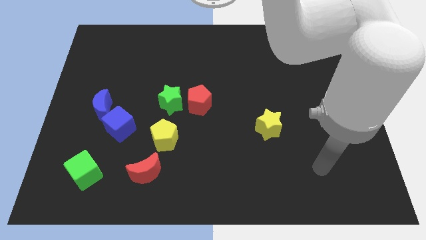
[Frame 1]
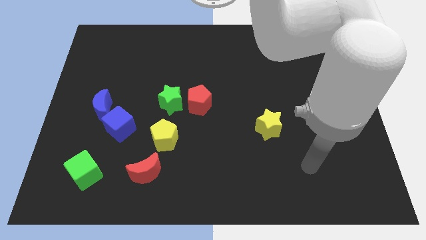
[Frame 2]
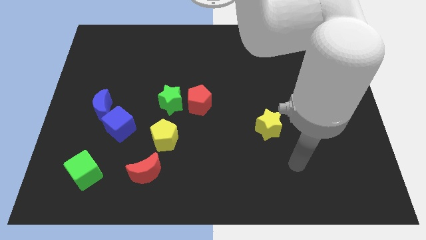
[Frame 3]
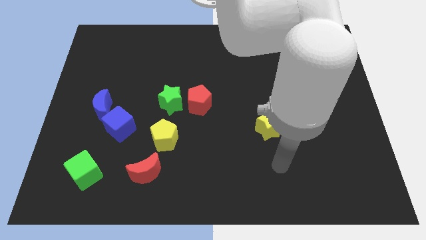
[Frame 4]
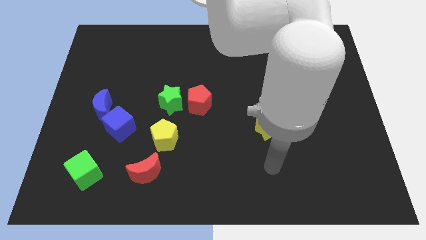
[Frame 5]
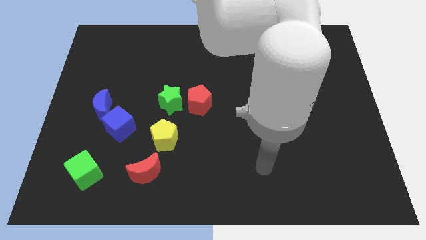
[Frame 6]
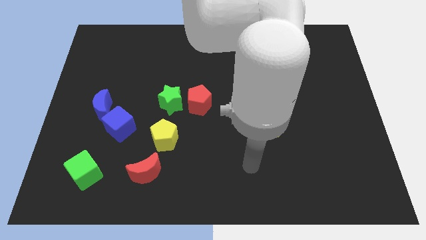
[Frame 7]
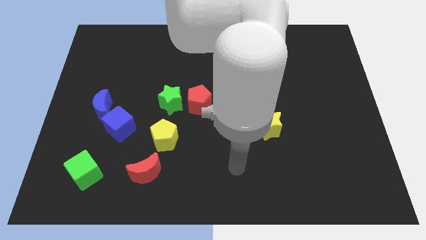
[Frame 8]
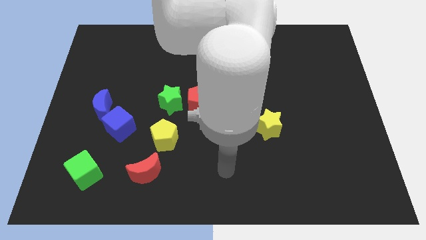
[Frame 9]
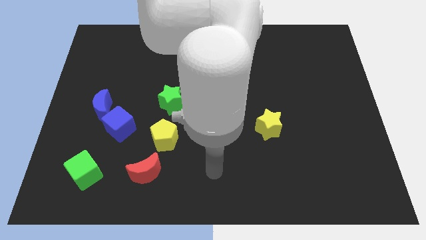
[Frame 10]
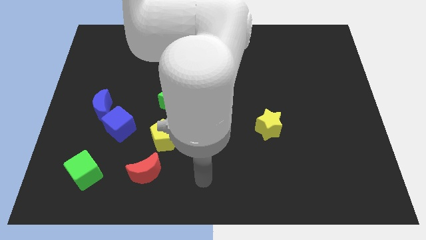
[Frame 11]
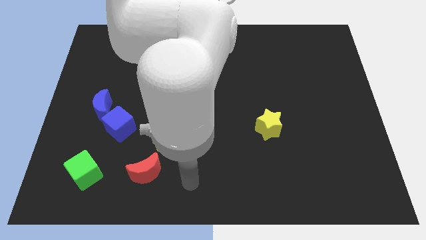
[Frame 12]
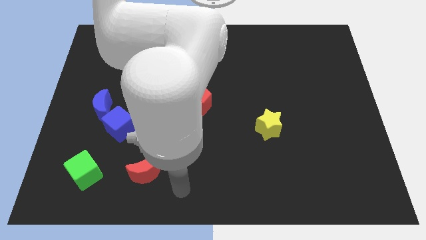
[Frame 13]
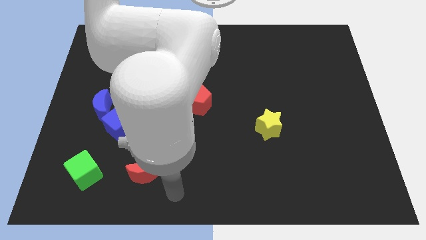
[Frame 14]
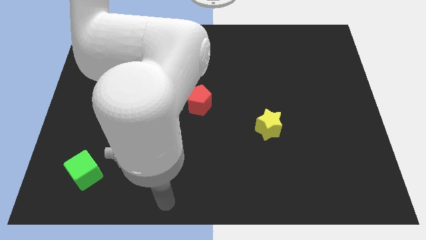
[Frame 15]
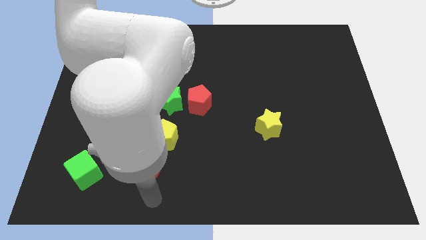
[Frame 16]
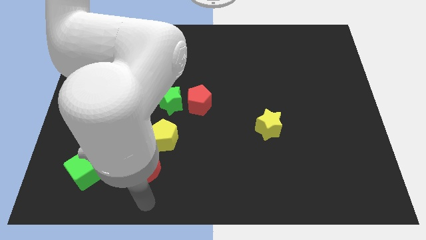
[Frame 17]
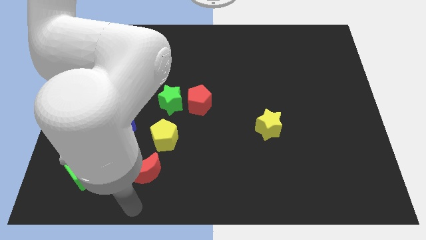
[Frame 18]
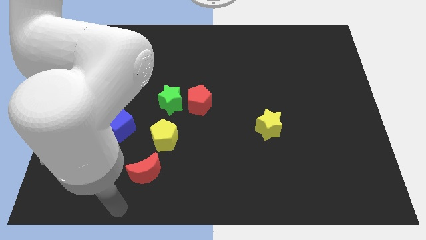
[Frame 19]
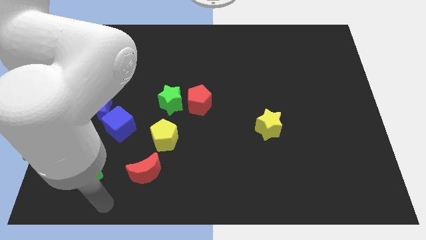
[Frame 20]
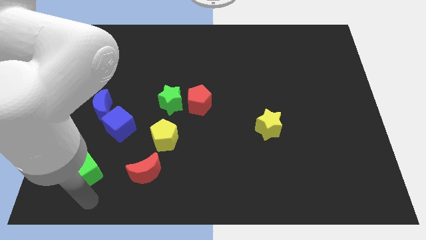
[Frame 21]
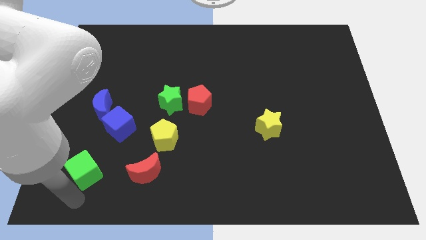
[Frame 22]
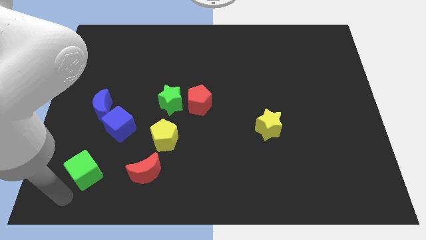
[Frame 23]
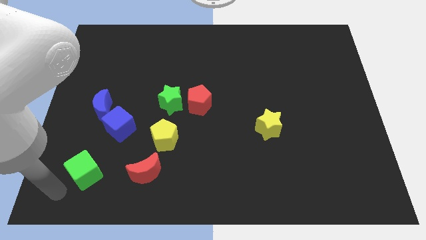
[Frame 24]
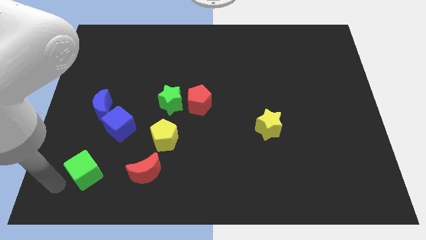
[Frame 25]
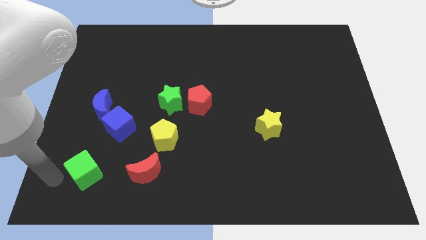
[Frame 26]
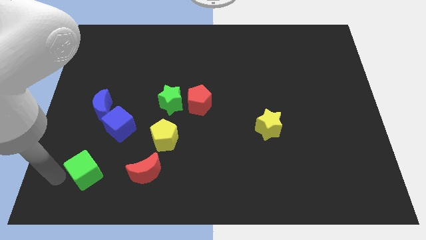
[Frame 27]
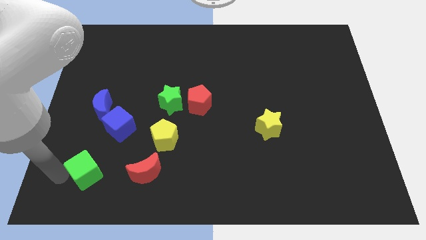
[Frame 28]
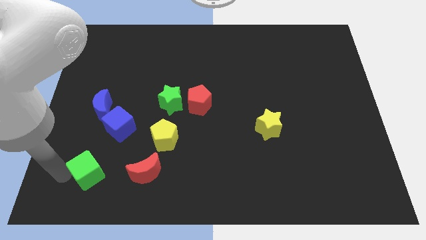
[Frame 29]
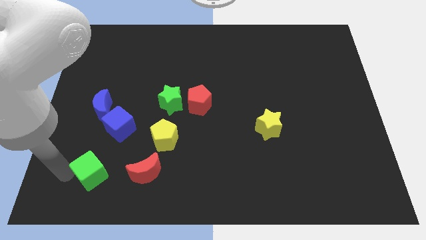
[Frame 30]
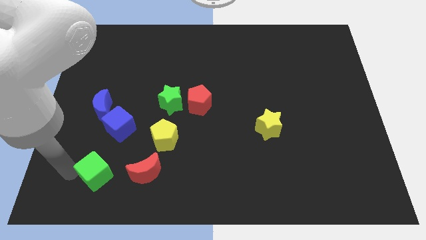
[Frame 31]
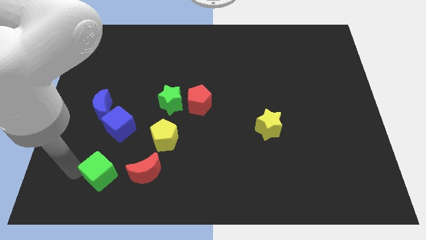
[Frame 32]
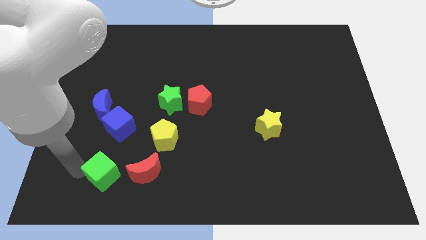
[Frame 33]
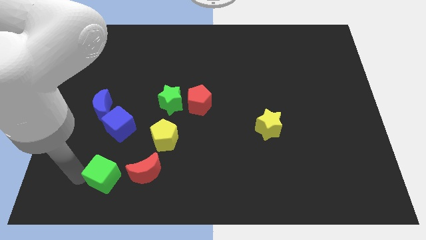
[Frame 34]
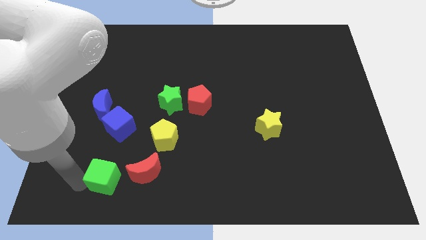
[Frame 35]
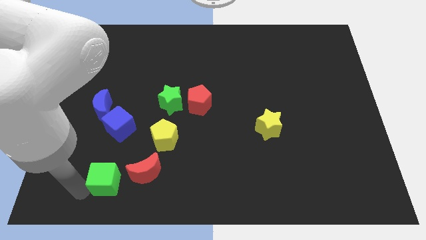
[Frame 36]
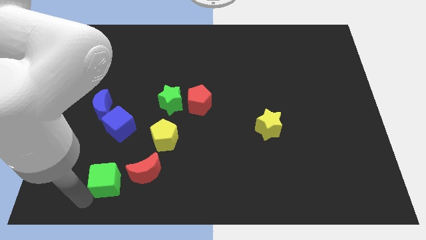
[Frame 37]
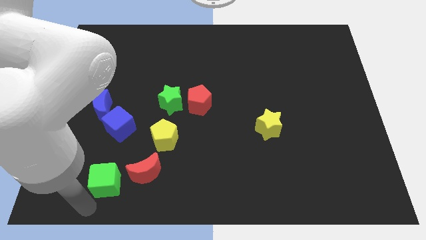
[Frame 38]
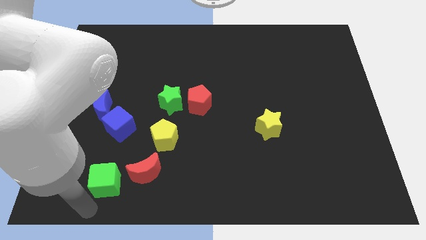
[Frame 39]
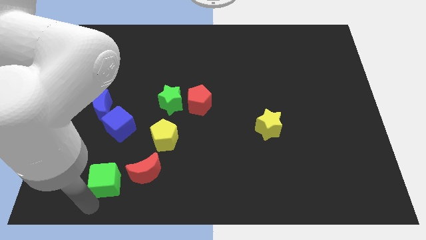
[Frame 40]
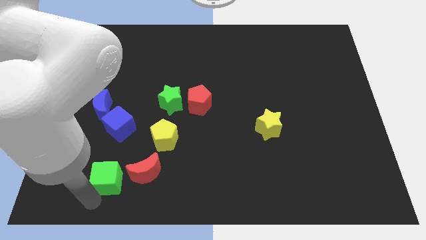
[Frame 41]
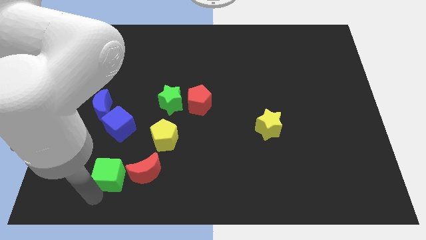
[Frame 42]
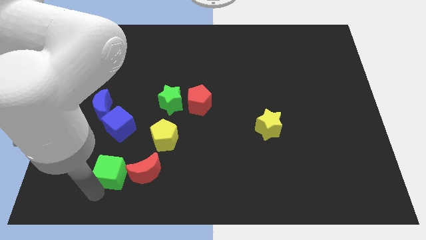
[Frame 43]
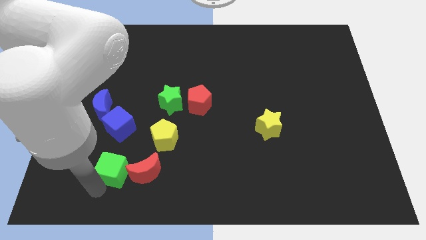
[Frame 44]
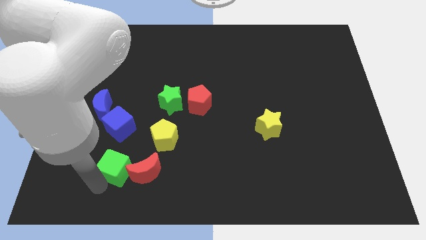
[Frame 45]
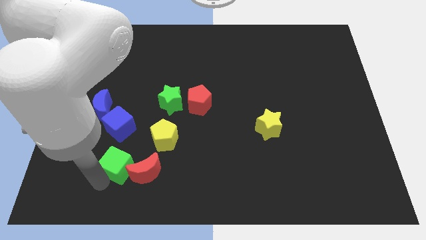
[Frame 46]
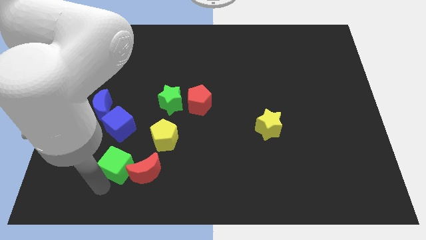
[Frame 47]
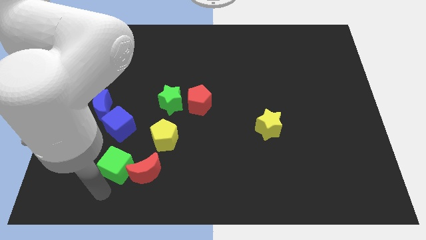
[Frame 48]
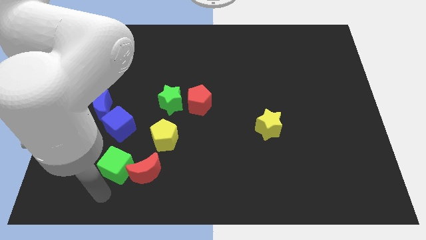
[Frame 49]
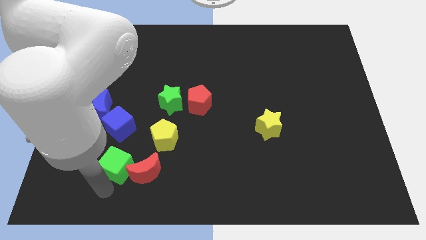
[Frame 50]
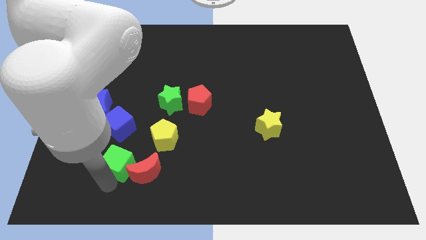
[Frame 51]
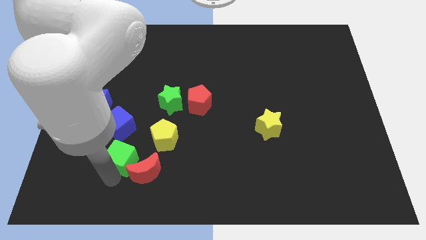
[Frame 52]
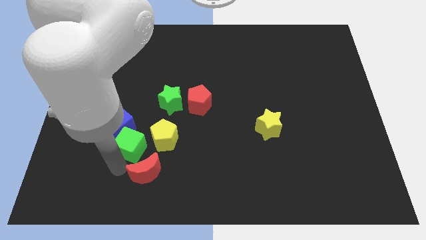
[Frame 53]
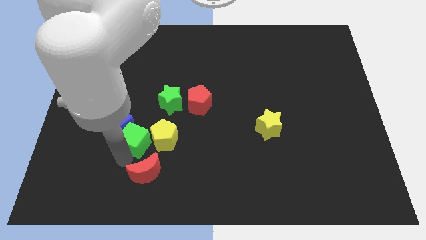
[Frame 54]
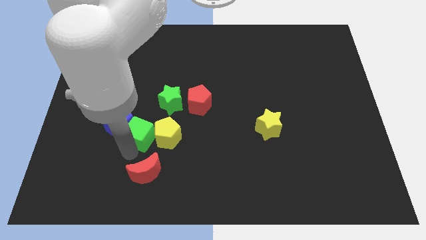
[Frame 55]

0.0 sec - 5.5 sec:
push the green cube to the top left side of the yellow pentagon

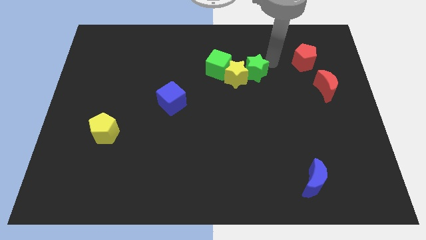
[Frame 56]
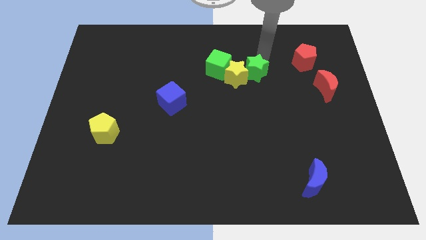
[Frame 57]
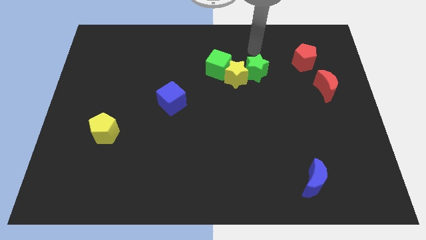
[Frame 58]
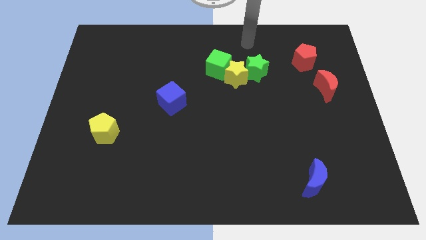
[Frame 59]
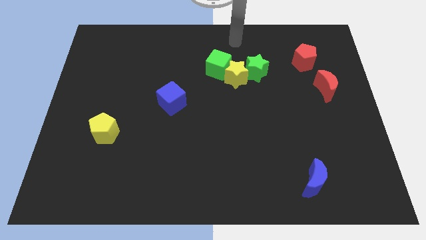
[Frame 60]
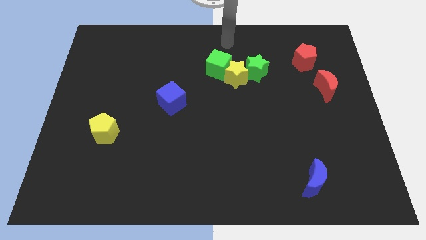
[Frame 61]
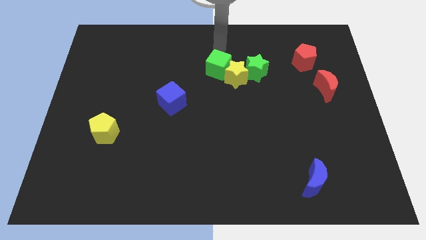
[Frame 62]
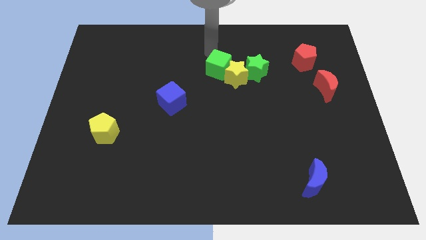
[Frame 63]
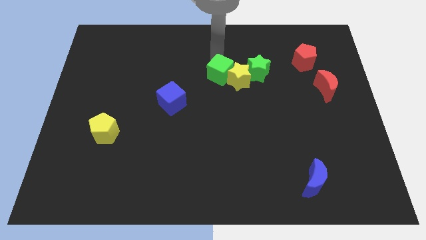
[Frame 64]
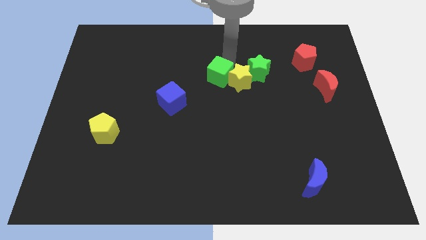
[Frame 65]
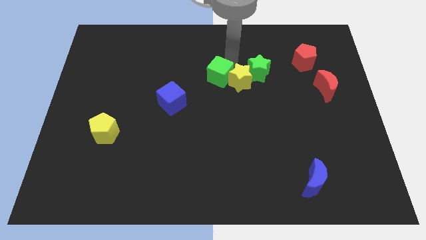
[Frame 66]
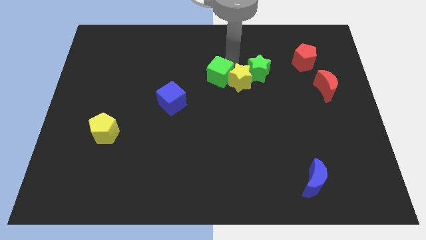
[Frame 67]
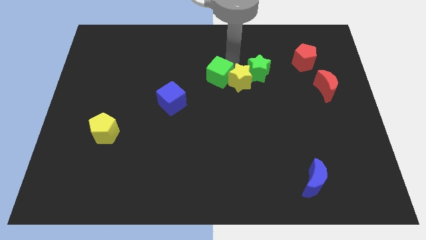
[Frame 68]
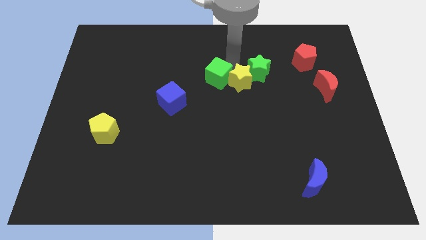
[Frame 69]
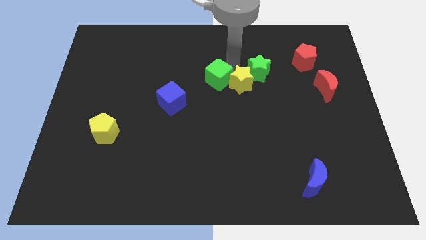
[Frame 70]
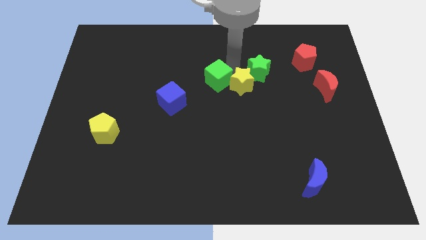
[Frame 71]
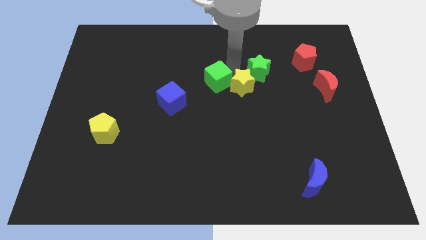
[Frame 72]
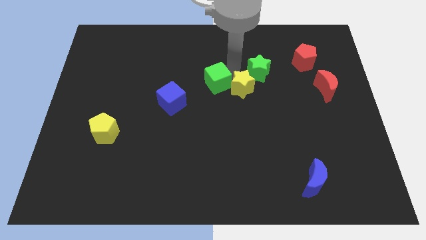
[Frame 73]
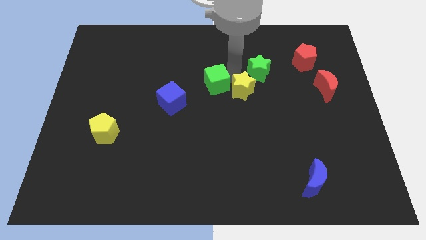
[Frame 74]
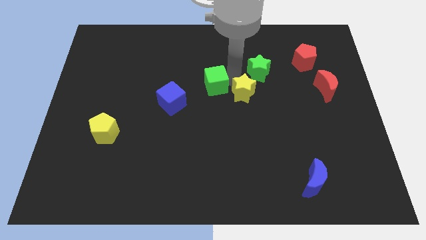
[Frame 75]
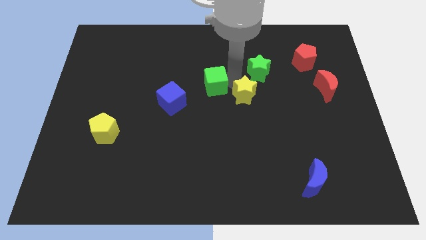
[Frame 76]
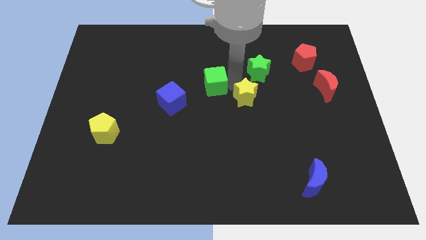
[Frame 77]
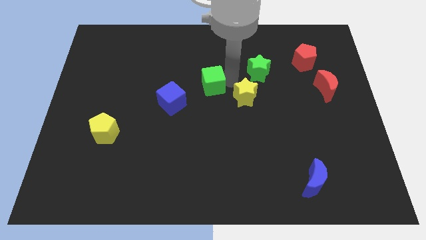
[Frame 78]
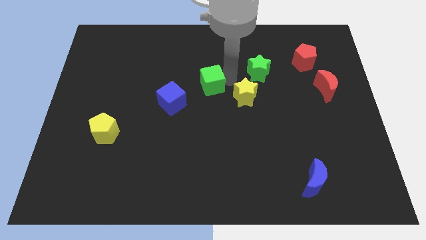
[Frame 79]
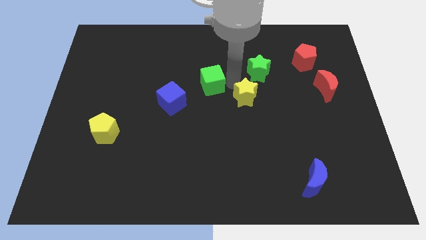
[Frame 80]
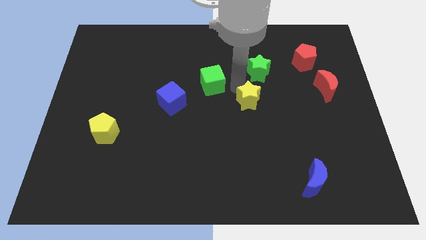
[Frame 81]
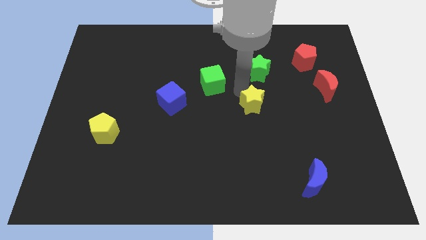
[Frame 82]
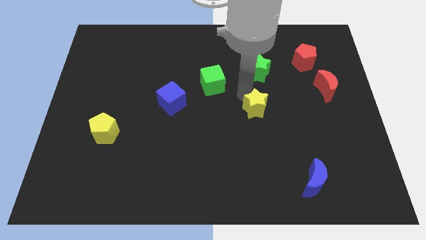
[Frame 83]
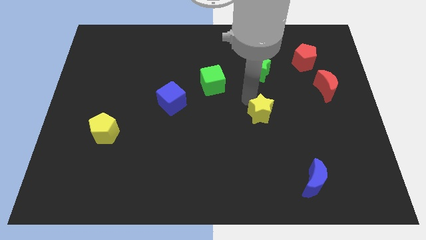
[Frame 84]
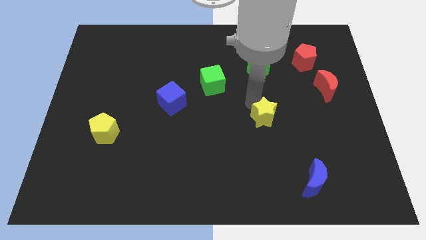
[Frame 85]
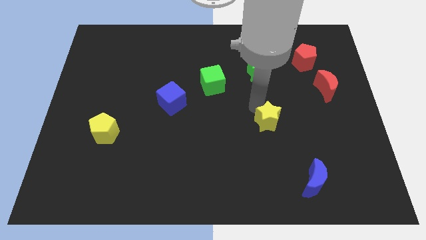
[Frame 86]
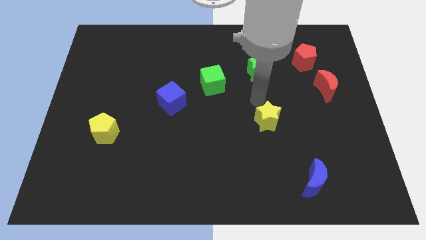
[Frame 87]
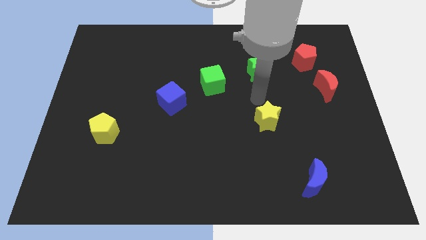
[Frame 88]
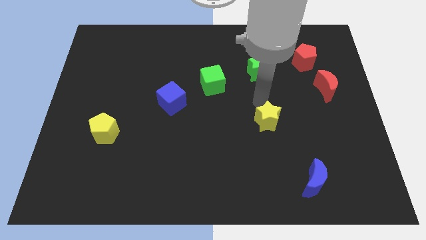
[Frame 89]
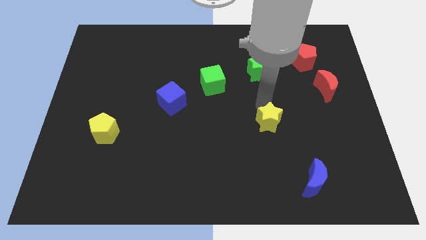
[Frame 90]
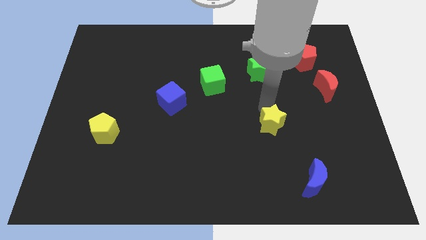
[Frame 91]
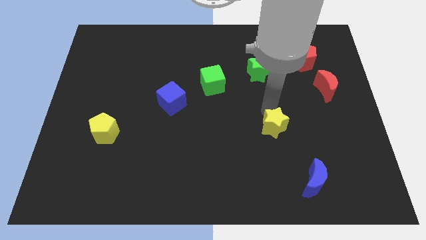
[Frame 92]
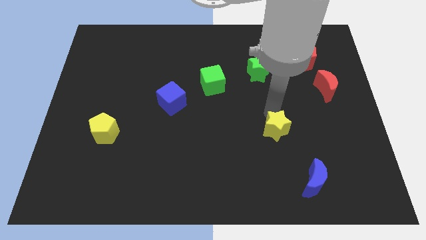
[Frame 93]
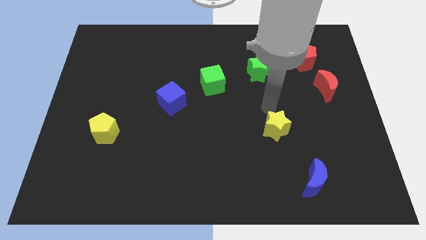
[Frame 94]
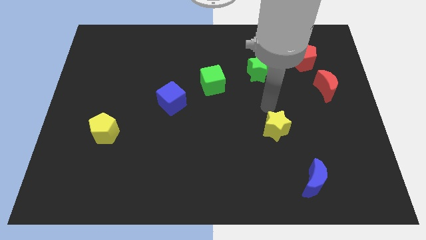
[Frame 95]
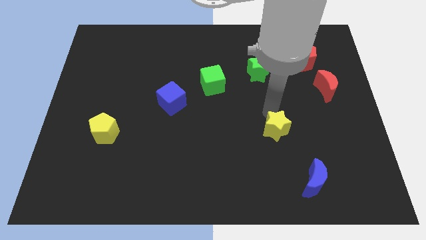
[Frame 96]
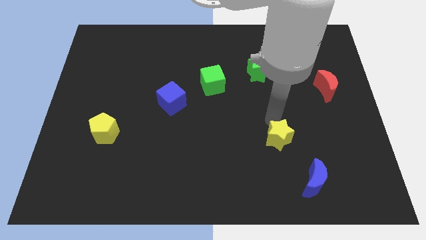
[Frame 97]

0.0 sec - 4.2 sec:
slide the yellow star to the top left of the blue moon
